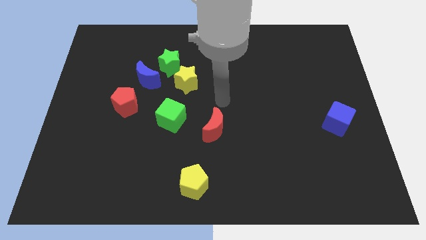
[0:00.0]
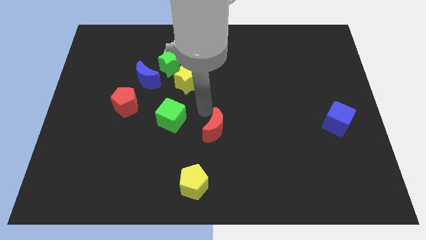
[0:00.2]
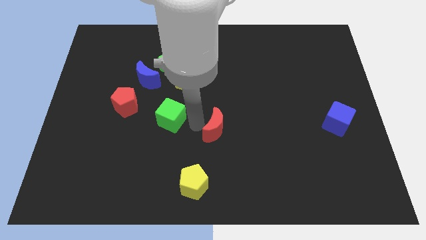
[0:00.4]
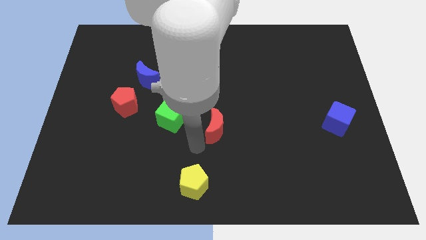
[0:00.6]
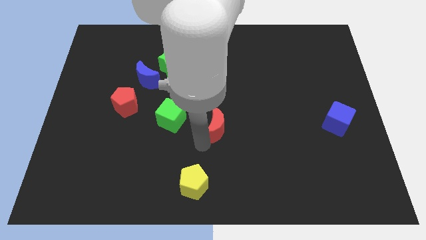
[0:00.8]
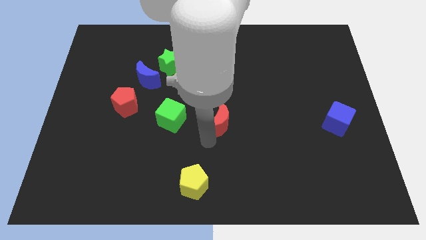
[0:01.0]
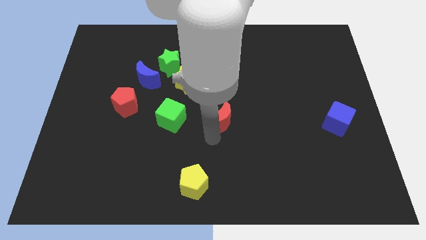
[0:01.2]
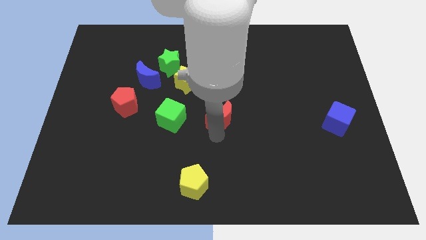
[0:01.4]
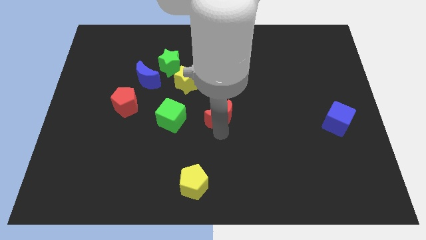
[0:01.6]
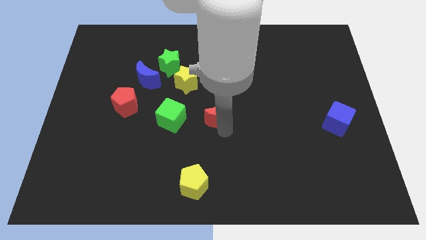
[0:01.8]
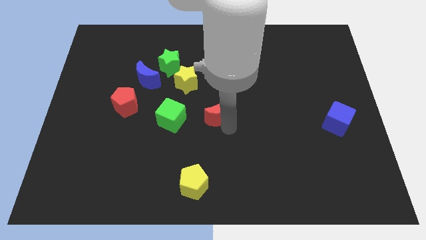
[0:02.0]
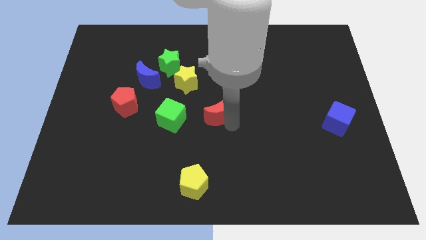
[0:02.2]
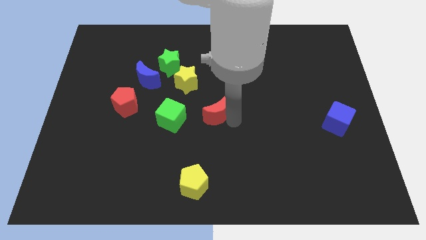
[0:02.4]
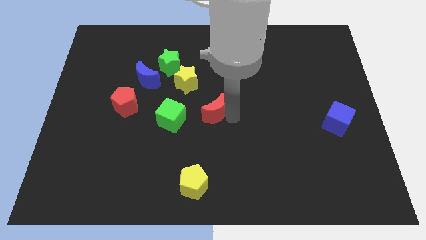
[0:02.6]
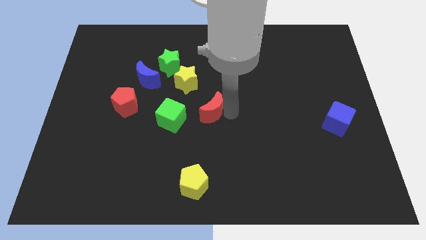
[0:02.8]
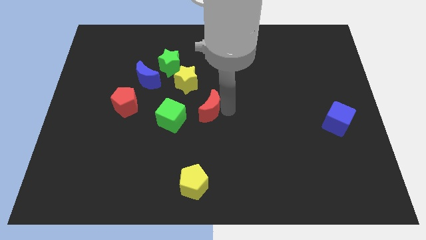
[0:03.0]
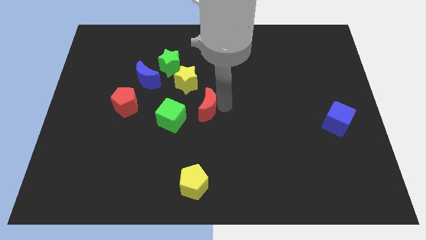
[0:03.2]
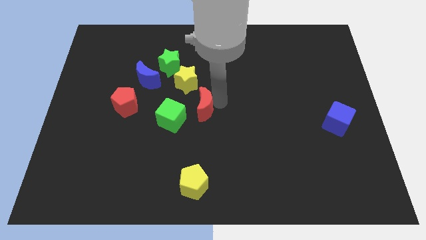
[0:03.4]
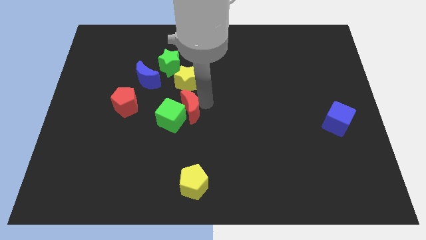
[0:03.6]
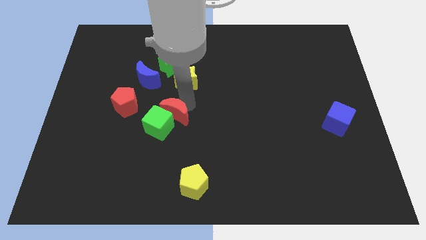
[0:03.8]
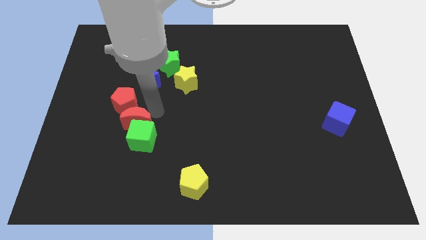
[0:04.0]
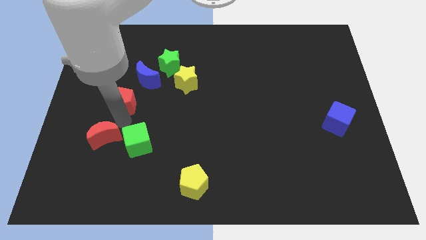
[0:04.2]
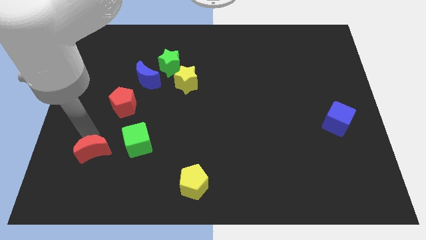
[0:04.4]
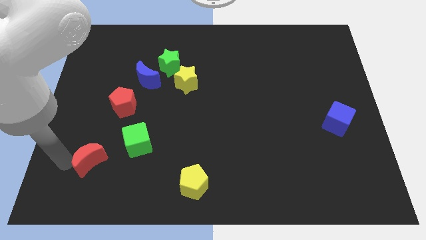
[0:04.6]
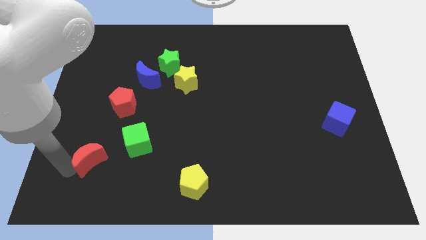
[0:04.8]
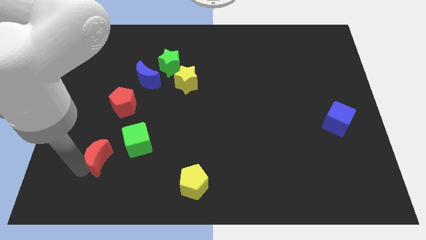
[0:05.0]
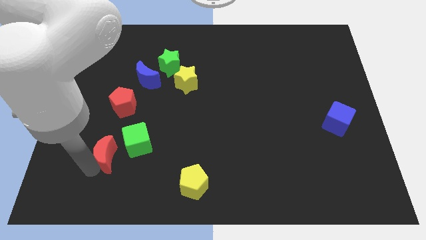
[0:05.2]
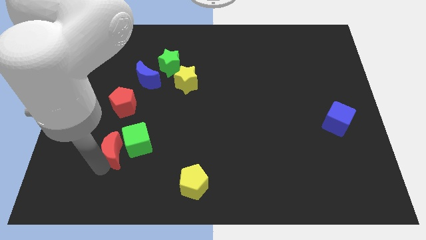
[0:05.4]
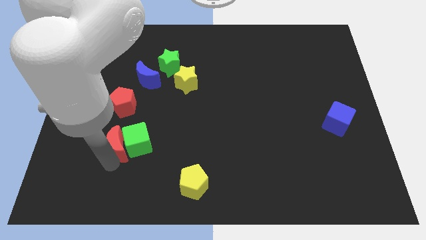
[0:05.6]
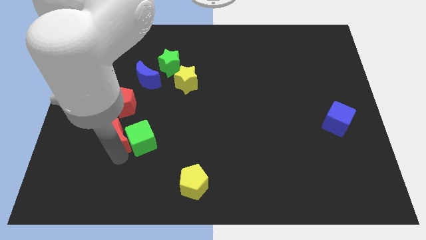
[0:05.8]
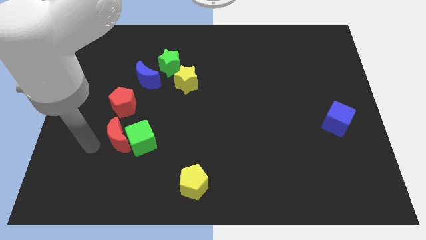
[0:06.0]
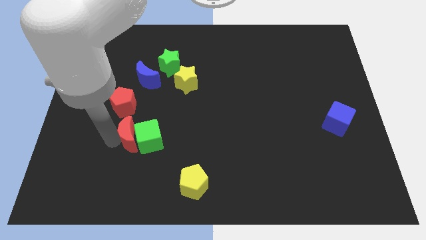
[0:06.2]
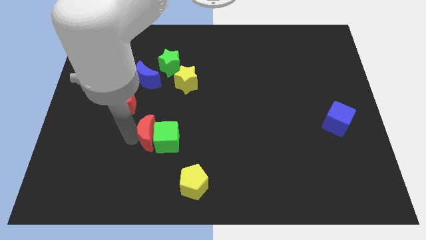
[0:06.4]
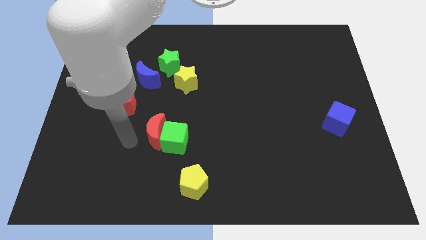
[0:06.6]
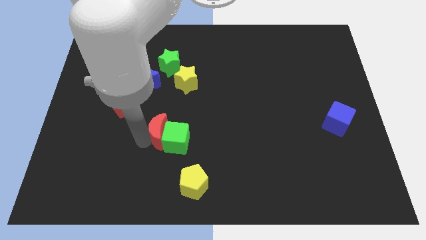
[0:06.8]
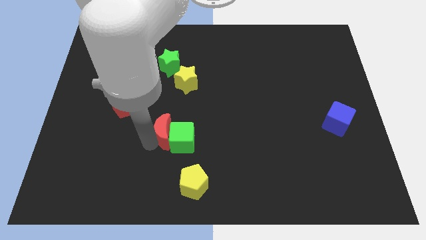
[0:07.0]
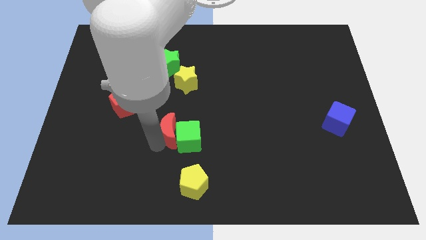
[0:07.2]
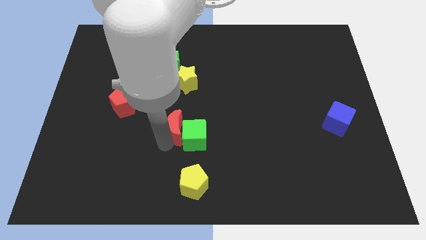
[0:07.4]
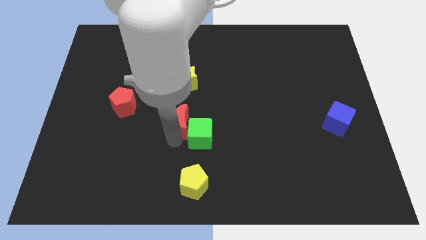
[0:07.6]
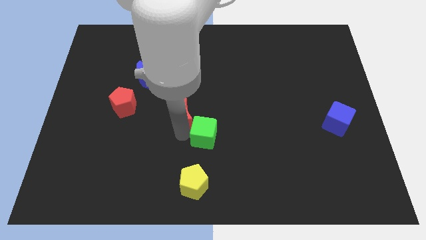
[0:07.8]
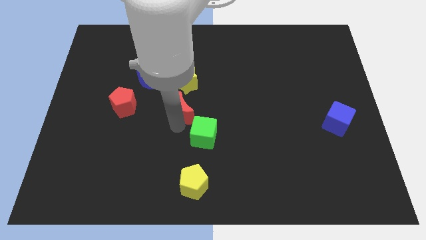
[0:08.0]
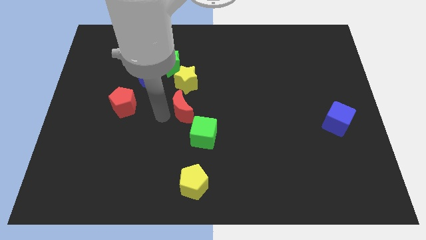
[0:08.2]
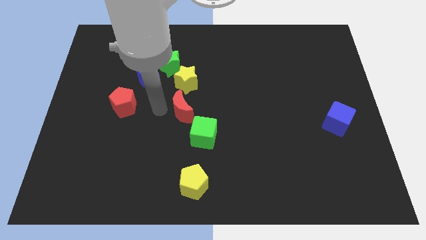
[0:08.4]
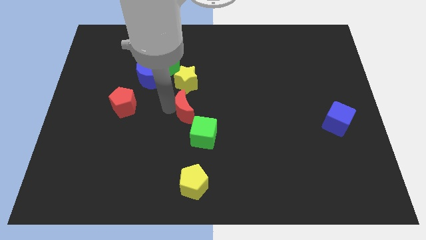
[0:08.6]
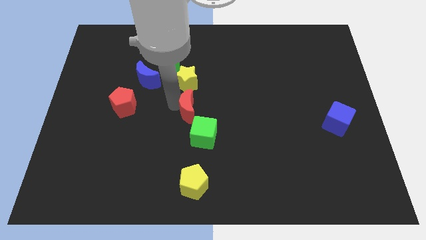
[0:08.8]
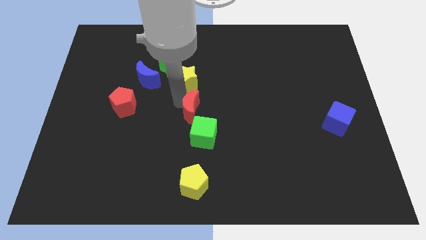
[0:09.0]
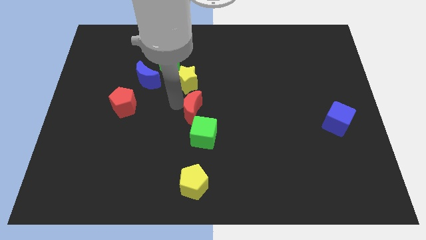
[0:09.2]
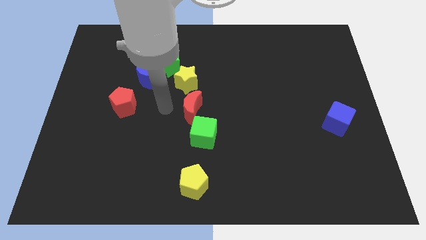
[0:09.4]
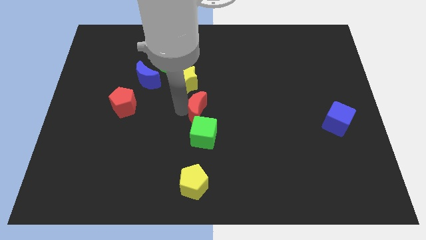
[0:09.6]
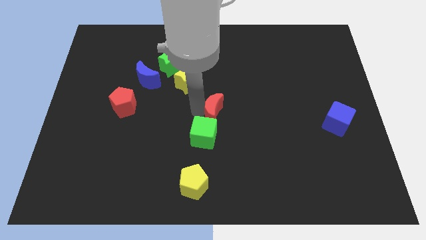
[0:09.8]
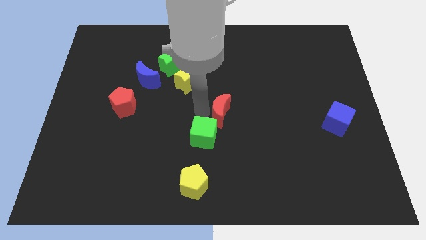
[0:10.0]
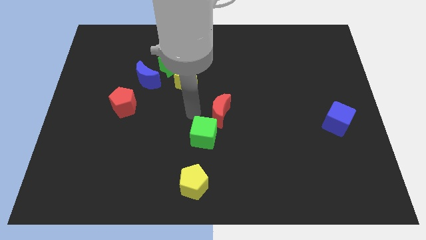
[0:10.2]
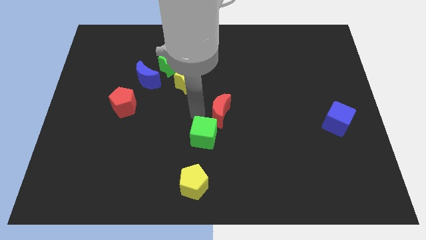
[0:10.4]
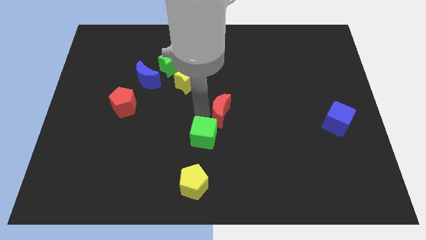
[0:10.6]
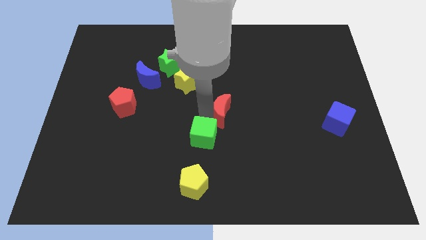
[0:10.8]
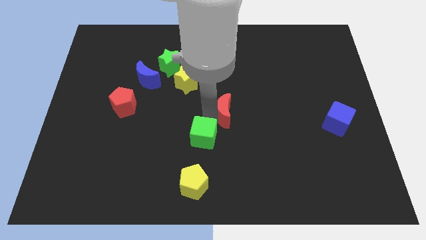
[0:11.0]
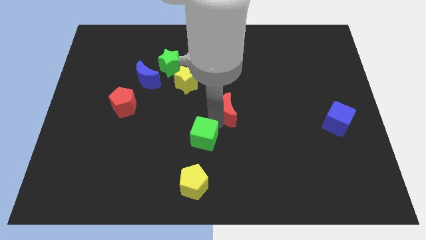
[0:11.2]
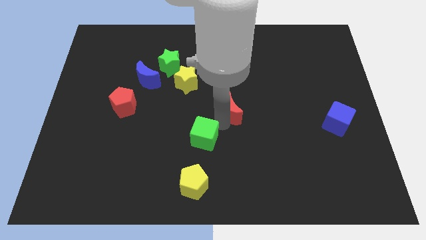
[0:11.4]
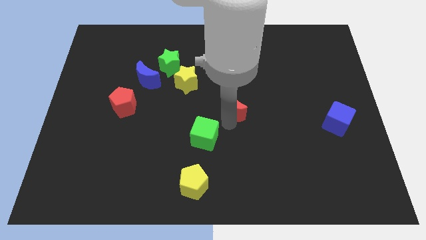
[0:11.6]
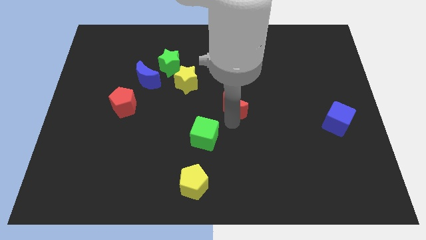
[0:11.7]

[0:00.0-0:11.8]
push the red moon upwards and to the right diagonally slightly

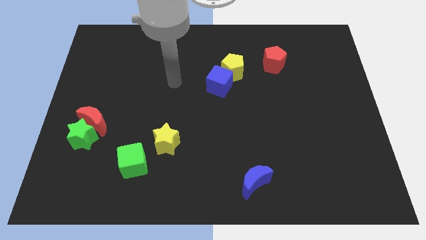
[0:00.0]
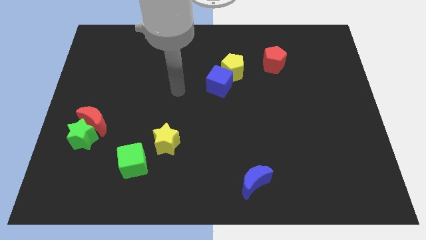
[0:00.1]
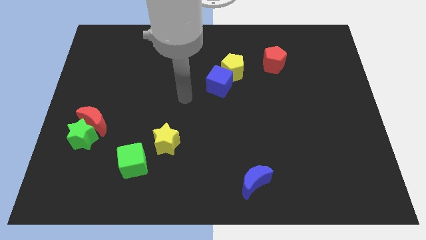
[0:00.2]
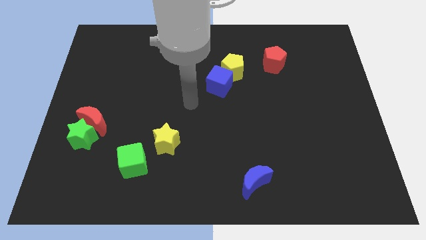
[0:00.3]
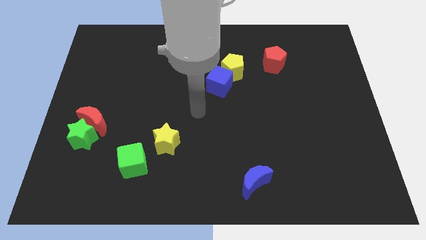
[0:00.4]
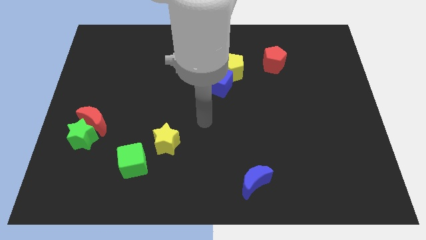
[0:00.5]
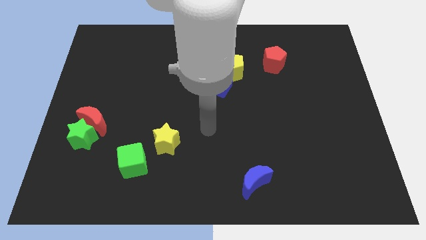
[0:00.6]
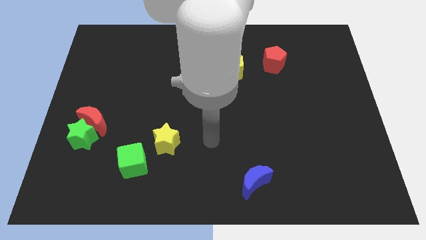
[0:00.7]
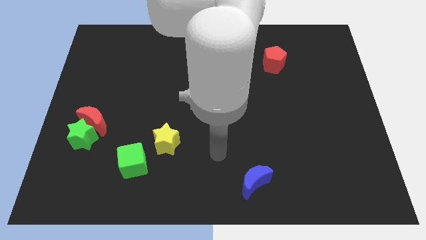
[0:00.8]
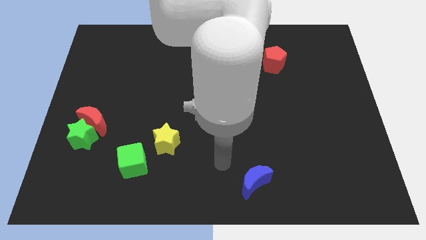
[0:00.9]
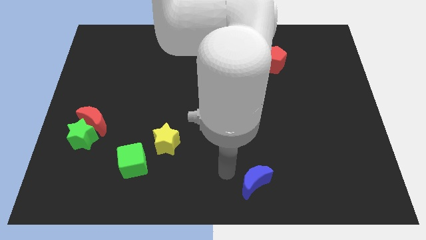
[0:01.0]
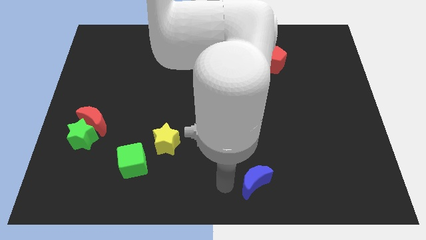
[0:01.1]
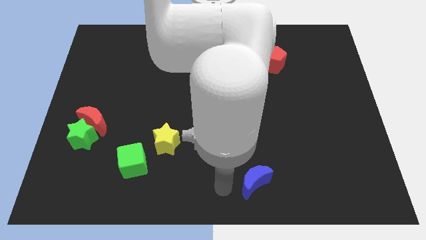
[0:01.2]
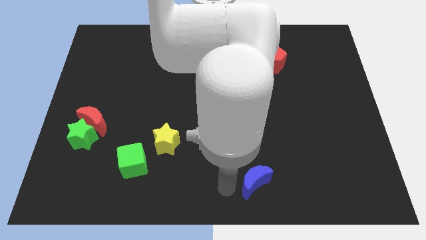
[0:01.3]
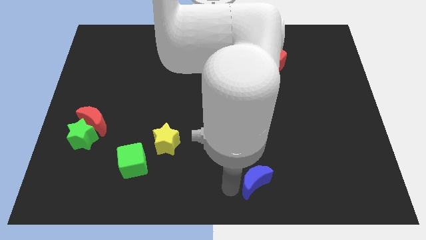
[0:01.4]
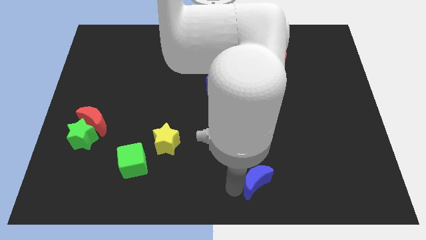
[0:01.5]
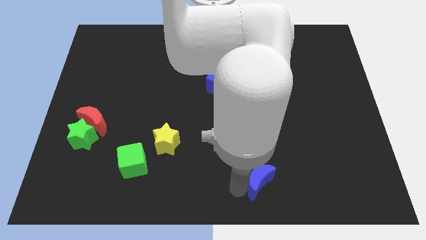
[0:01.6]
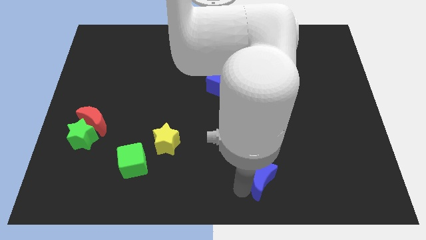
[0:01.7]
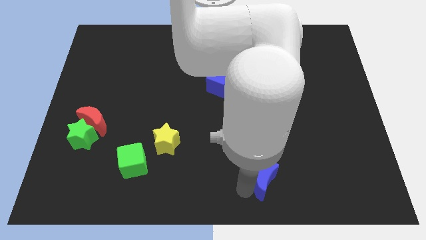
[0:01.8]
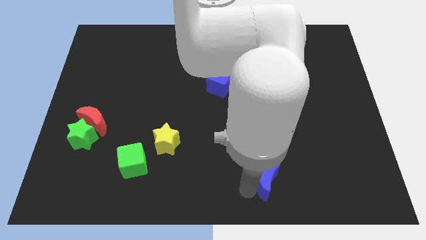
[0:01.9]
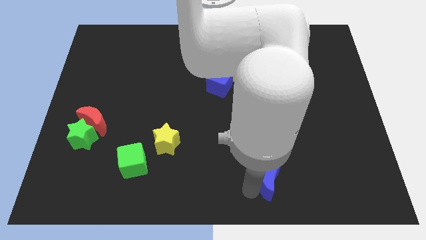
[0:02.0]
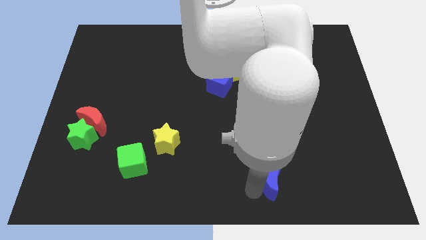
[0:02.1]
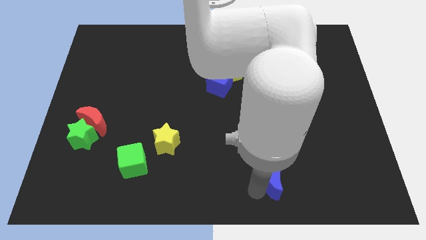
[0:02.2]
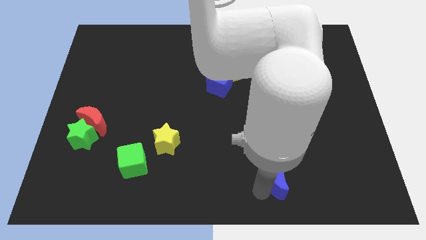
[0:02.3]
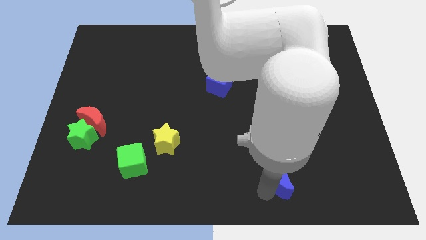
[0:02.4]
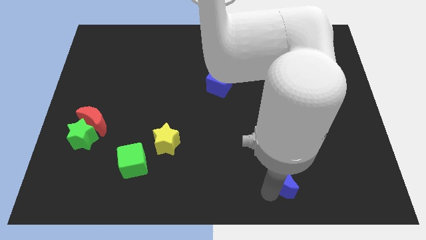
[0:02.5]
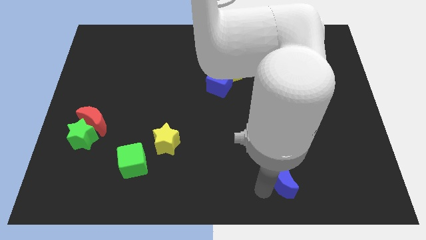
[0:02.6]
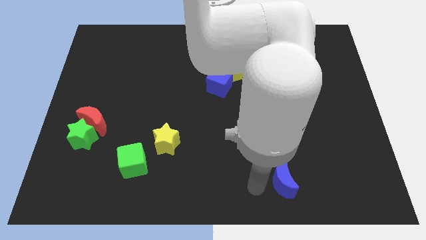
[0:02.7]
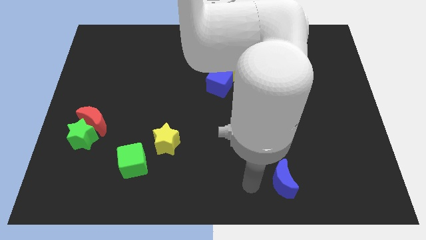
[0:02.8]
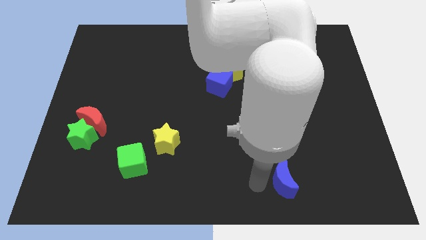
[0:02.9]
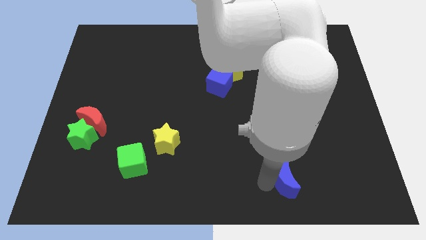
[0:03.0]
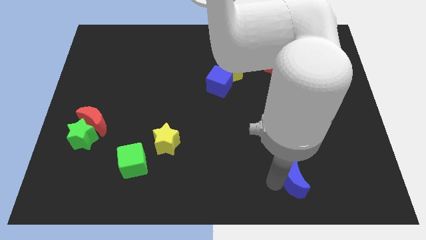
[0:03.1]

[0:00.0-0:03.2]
slide the blue moon to the right slightly
